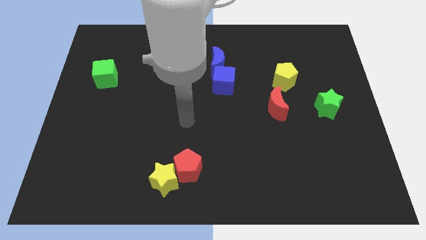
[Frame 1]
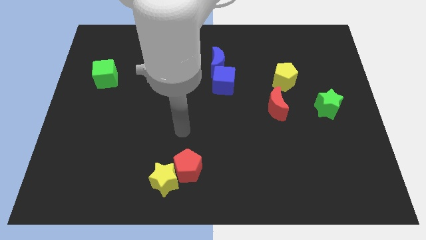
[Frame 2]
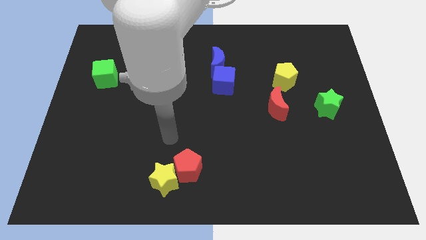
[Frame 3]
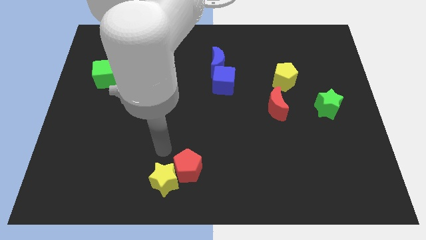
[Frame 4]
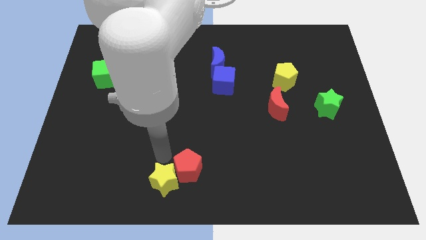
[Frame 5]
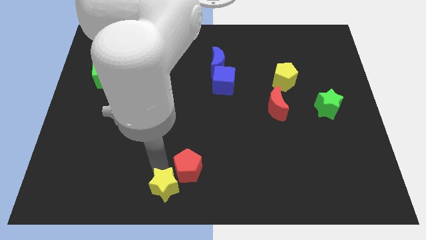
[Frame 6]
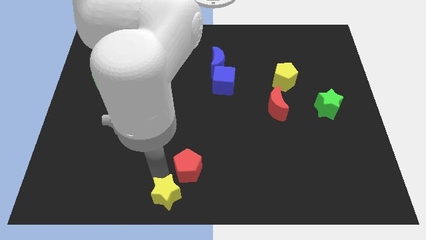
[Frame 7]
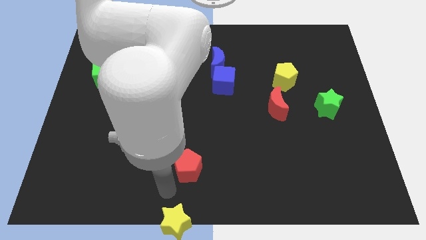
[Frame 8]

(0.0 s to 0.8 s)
pull the red pentagon apart from the yellow star

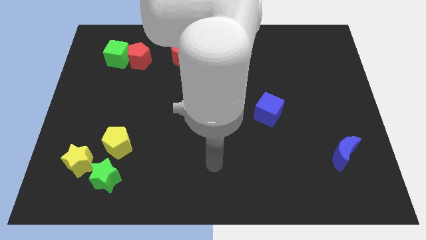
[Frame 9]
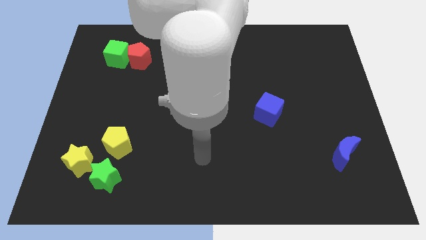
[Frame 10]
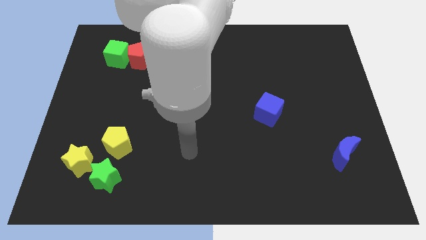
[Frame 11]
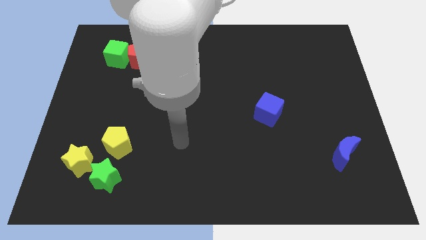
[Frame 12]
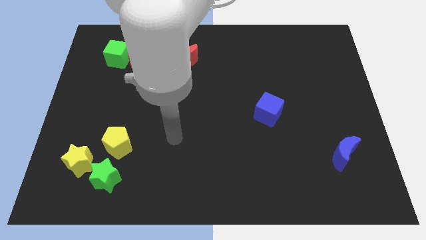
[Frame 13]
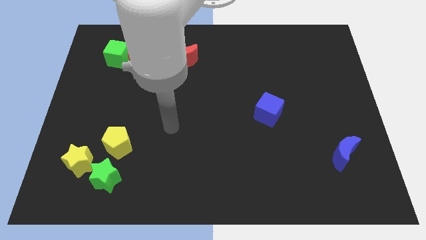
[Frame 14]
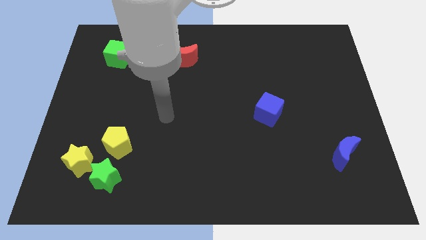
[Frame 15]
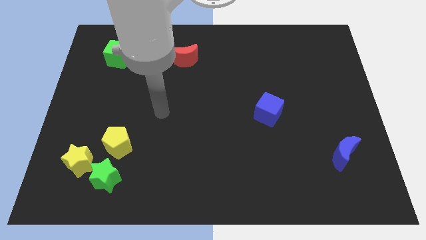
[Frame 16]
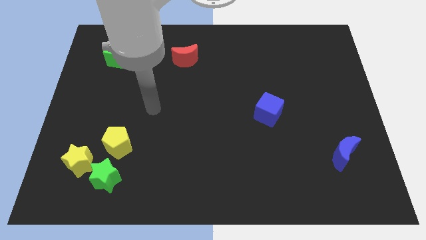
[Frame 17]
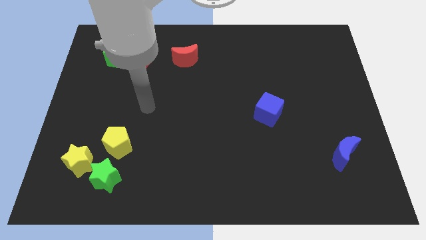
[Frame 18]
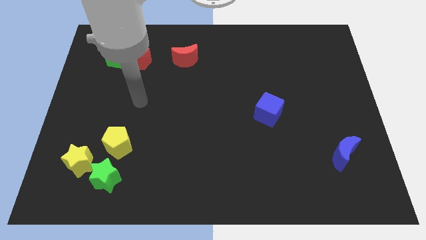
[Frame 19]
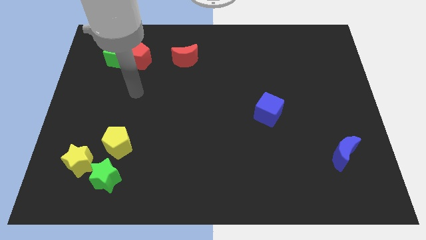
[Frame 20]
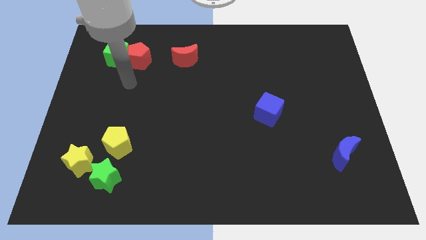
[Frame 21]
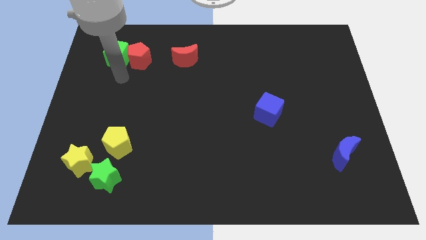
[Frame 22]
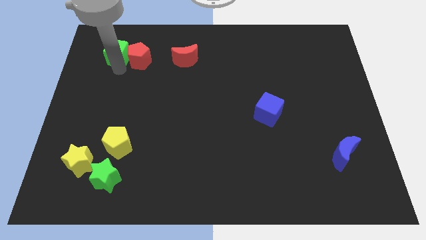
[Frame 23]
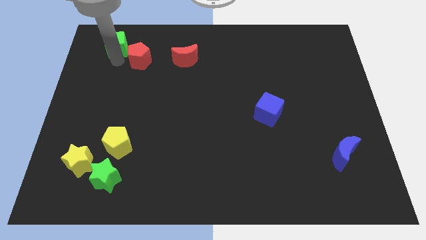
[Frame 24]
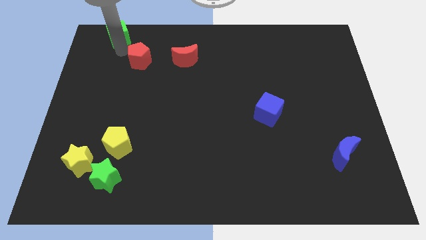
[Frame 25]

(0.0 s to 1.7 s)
separate the red pentagon from the green cube

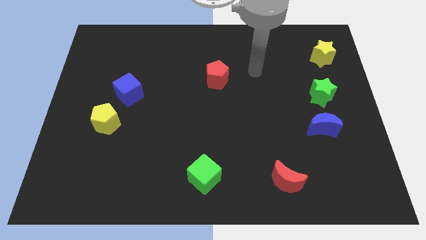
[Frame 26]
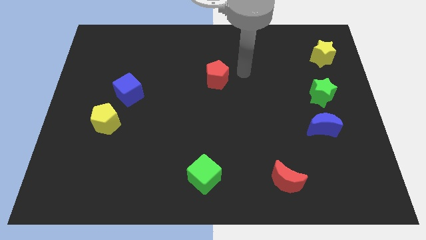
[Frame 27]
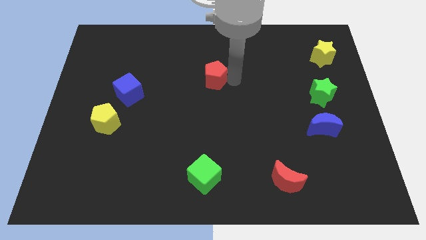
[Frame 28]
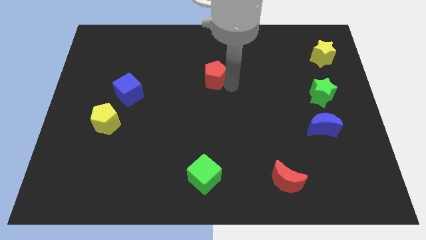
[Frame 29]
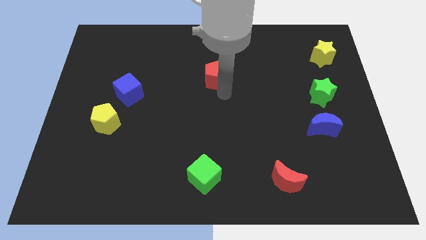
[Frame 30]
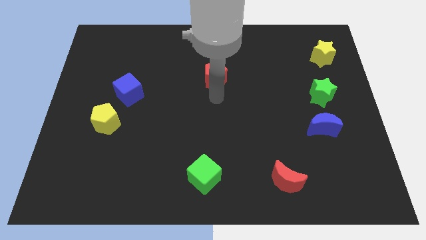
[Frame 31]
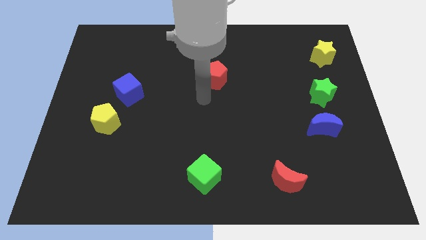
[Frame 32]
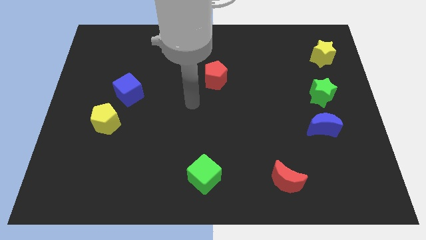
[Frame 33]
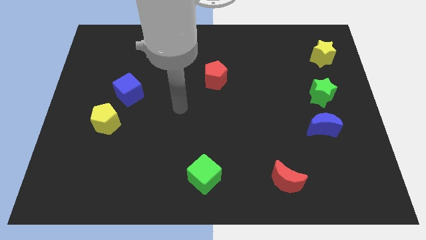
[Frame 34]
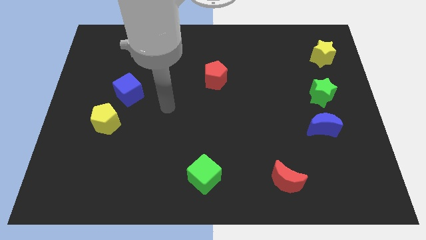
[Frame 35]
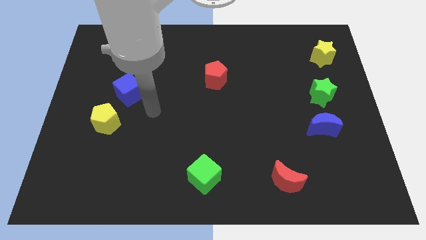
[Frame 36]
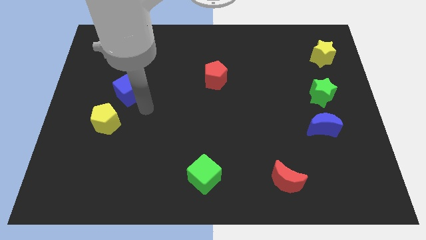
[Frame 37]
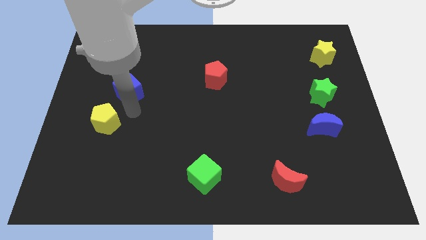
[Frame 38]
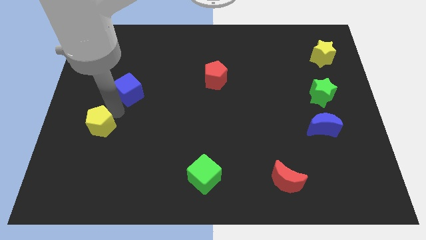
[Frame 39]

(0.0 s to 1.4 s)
move the blue cube away from the yellow pentagon

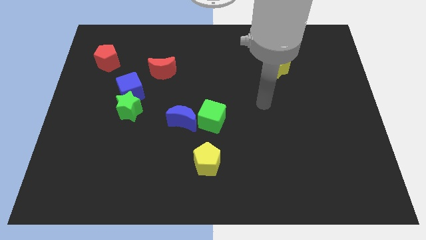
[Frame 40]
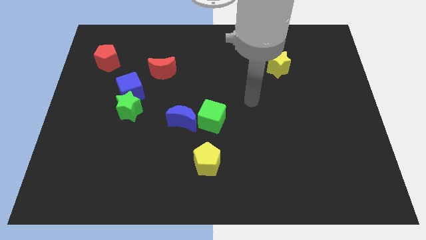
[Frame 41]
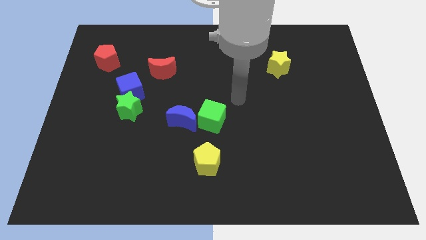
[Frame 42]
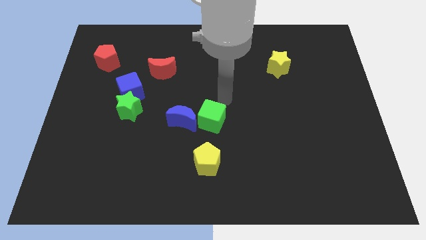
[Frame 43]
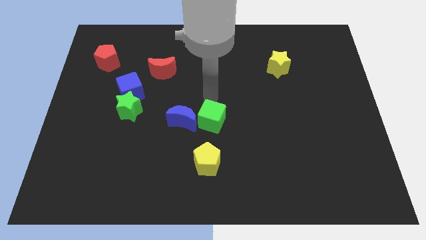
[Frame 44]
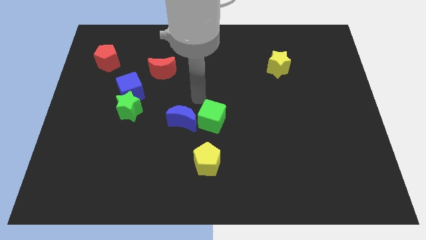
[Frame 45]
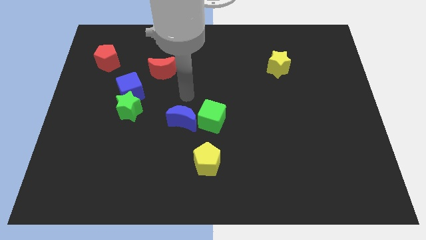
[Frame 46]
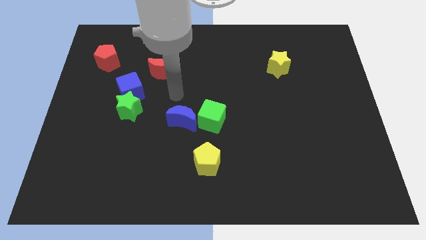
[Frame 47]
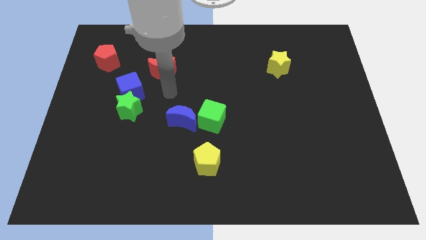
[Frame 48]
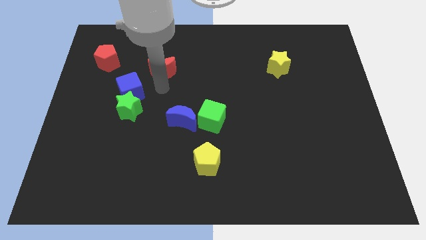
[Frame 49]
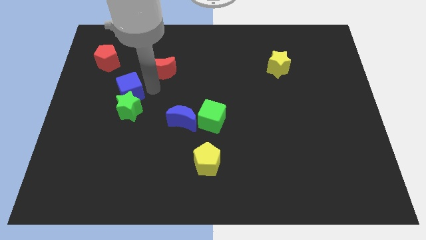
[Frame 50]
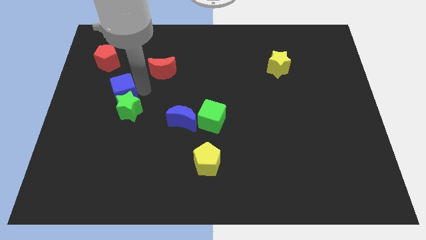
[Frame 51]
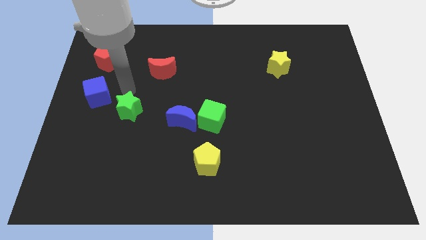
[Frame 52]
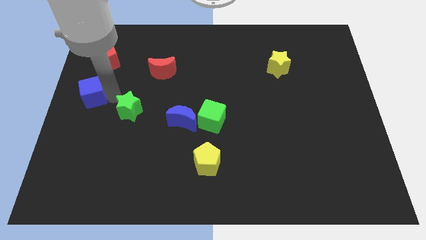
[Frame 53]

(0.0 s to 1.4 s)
separate the green star from the blue cube

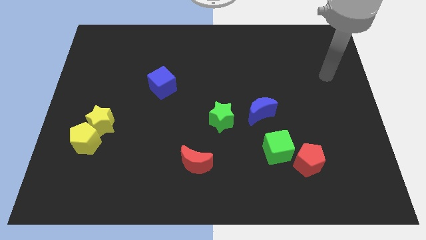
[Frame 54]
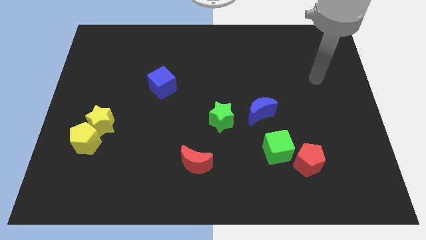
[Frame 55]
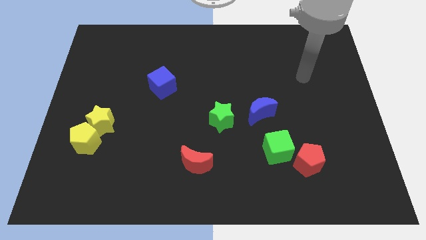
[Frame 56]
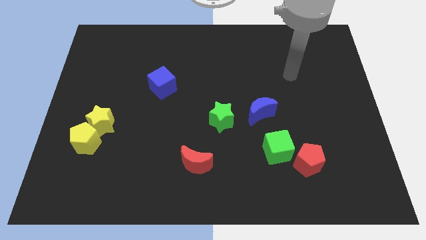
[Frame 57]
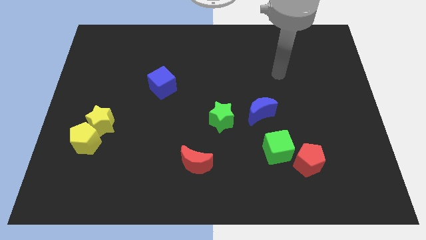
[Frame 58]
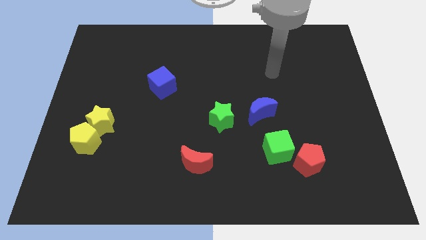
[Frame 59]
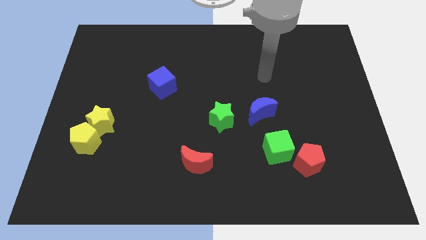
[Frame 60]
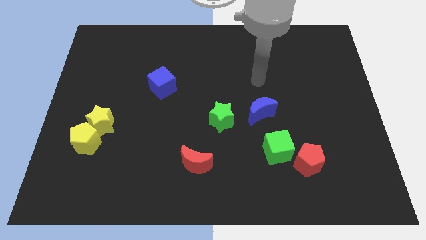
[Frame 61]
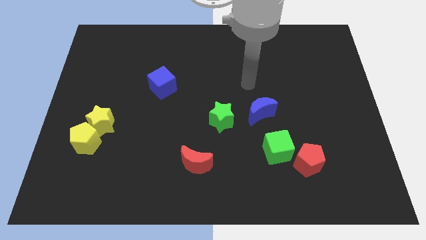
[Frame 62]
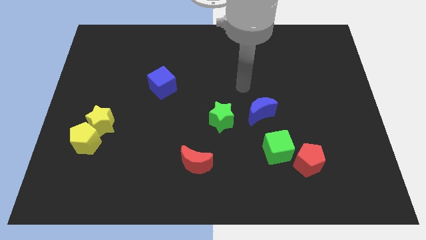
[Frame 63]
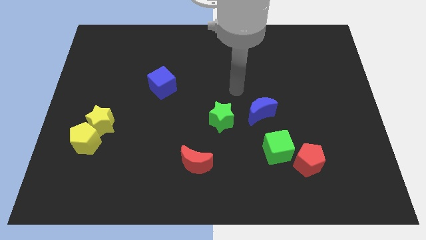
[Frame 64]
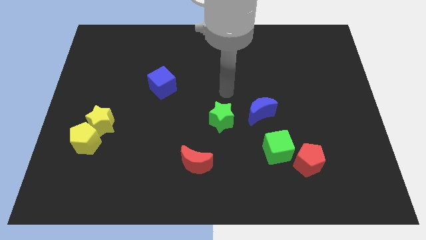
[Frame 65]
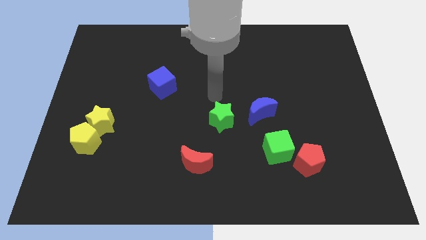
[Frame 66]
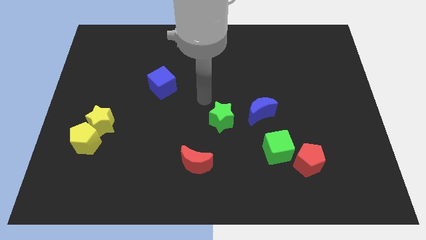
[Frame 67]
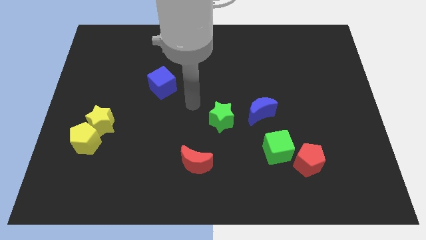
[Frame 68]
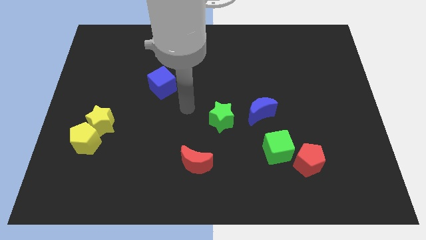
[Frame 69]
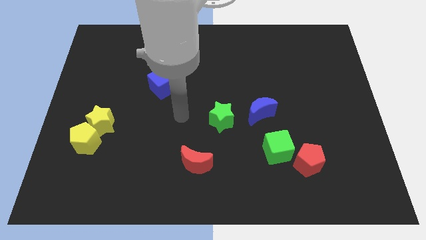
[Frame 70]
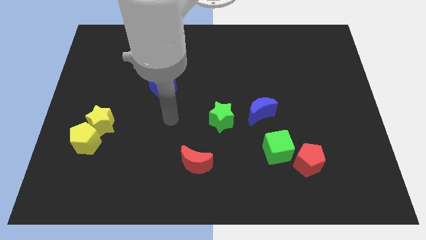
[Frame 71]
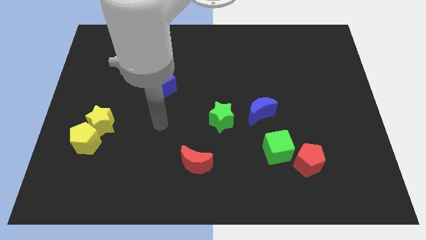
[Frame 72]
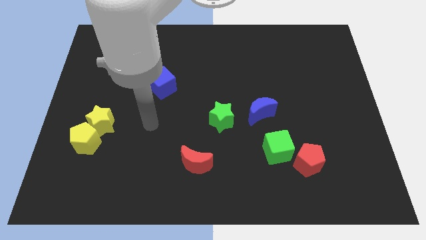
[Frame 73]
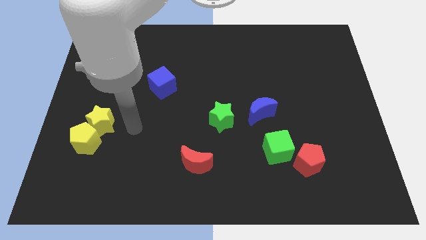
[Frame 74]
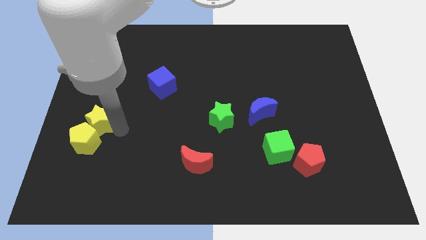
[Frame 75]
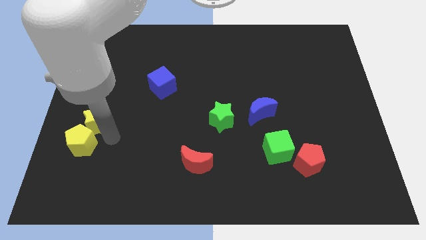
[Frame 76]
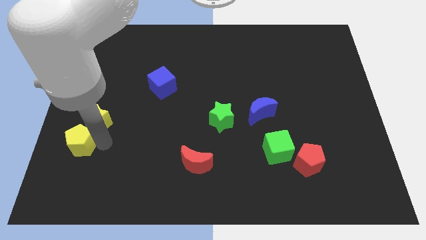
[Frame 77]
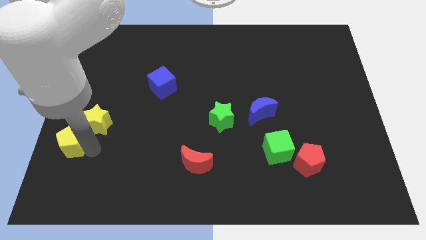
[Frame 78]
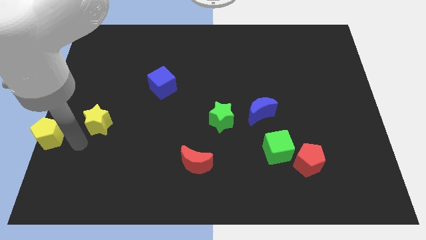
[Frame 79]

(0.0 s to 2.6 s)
pull the yellow star apart from the yellow pentagon

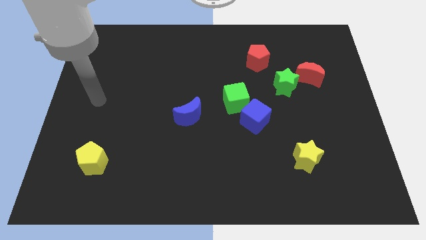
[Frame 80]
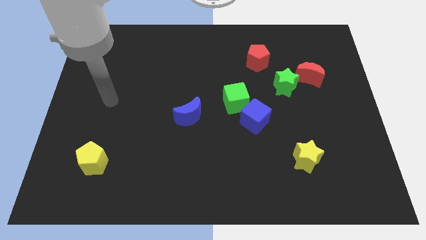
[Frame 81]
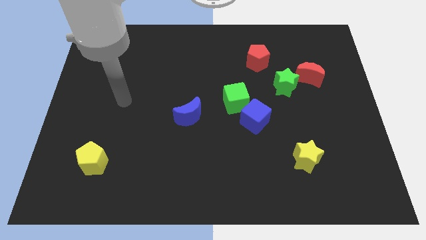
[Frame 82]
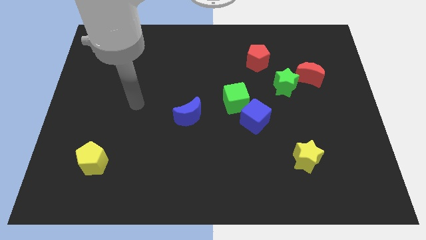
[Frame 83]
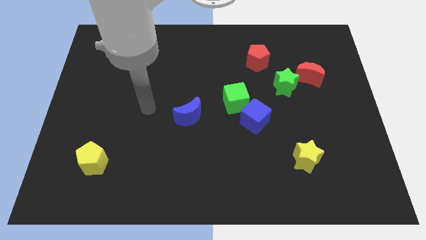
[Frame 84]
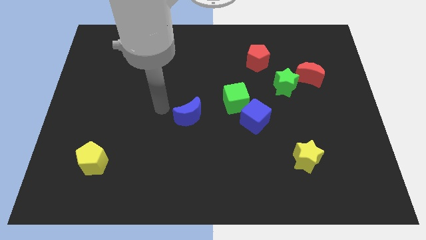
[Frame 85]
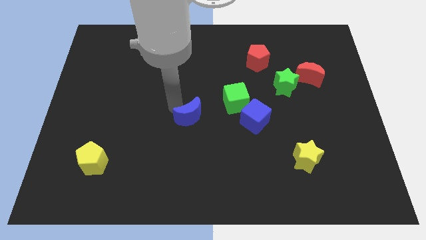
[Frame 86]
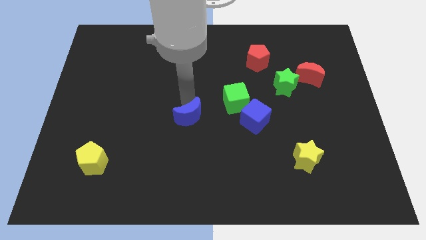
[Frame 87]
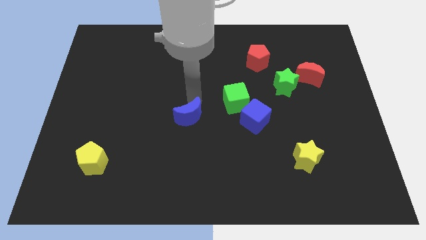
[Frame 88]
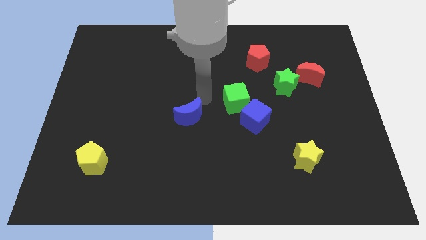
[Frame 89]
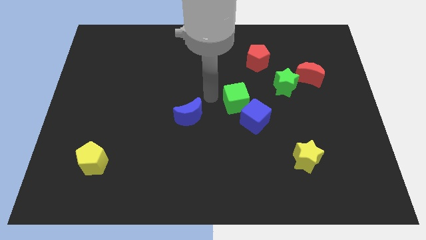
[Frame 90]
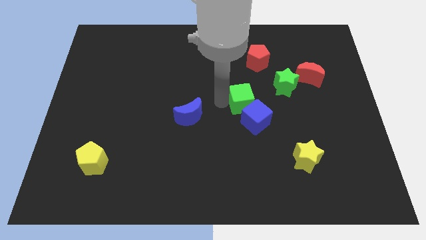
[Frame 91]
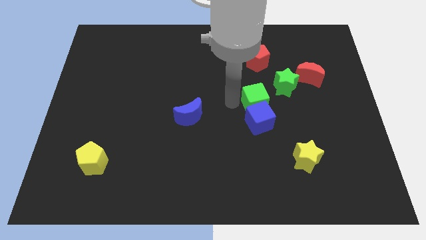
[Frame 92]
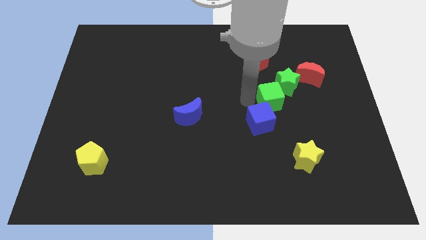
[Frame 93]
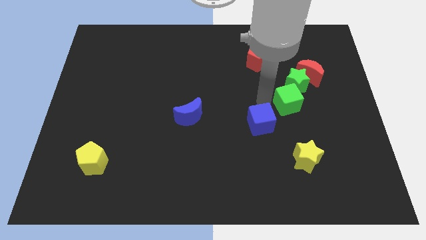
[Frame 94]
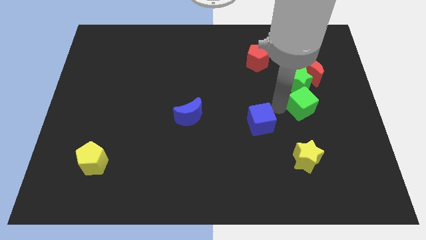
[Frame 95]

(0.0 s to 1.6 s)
separate the blue cube from the green cube
